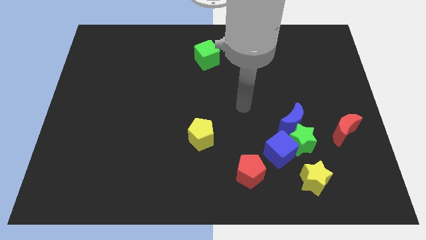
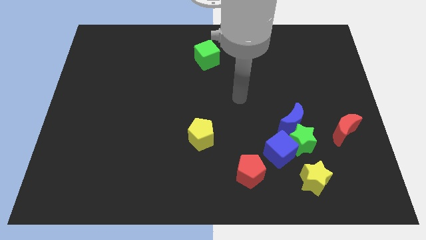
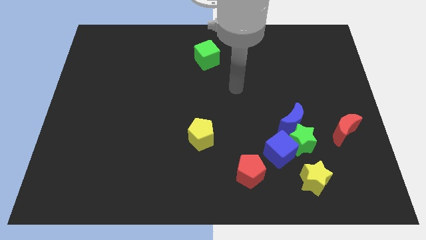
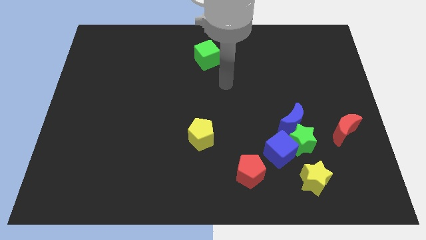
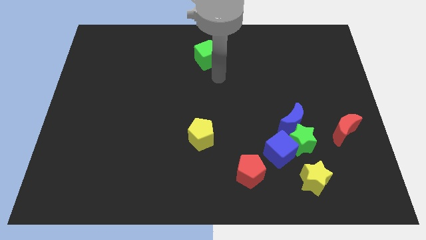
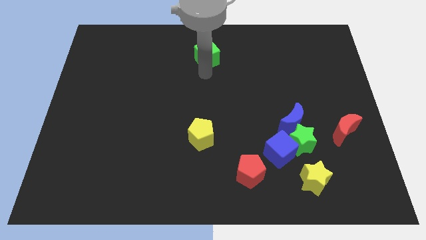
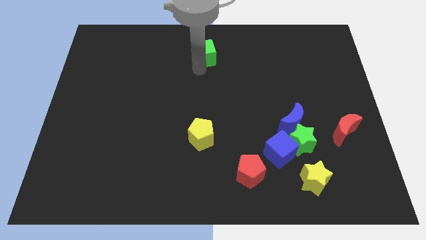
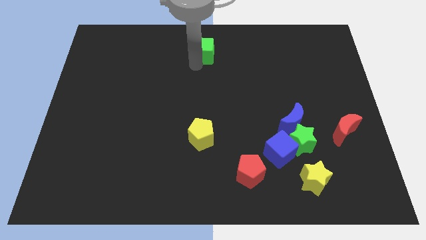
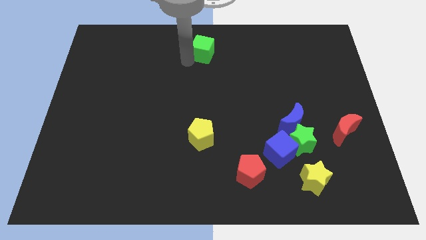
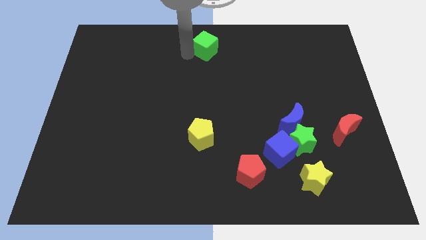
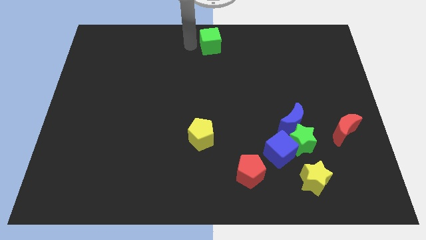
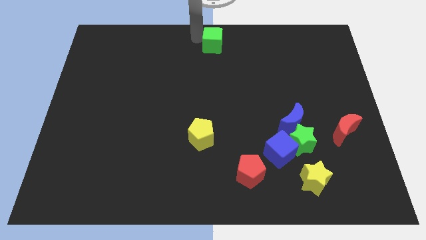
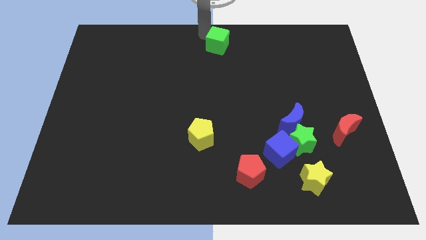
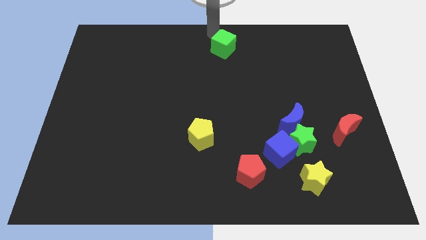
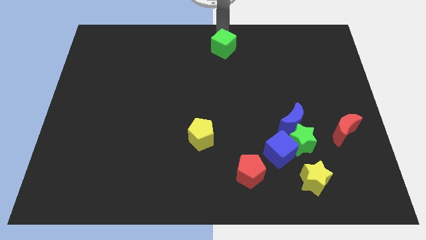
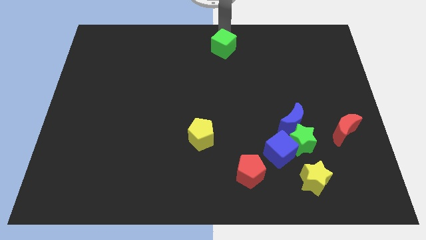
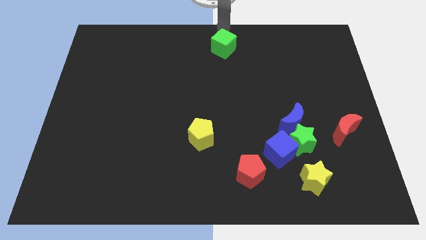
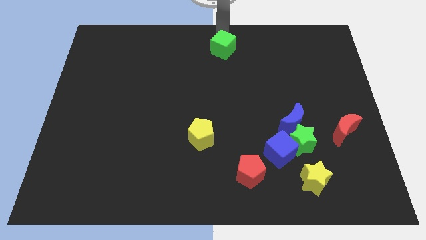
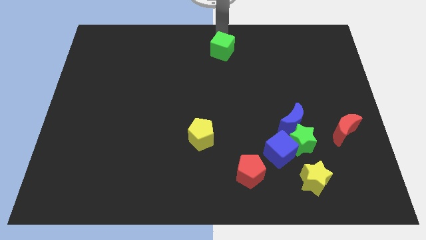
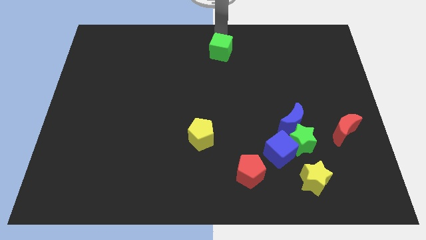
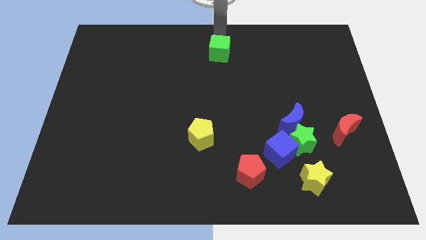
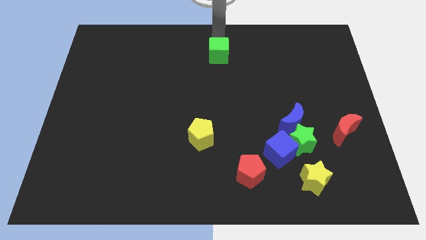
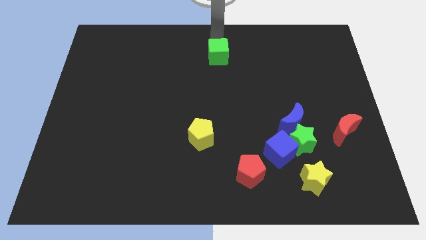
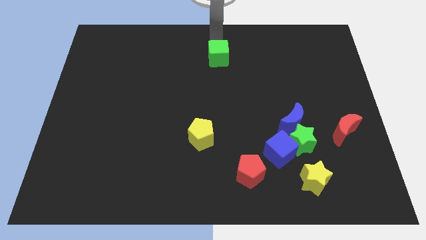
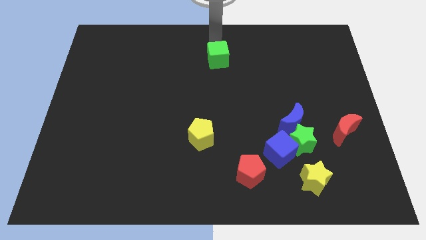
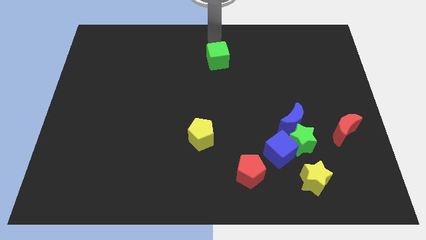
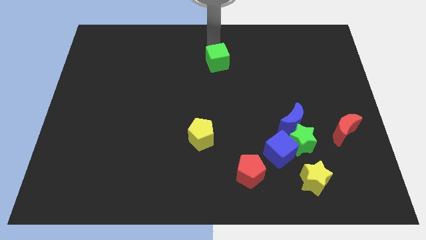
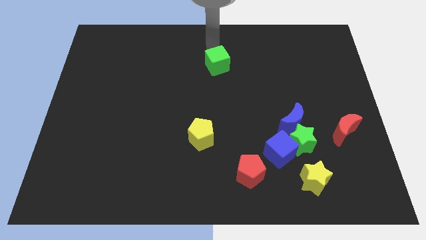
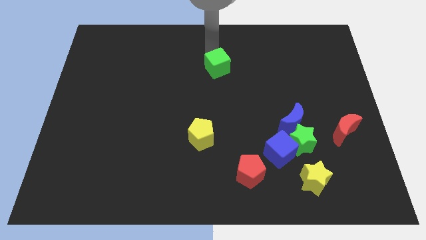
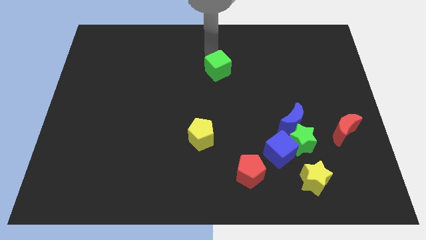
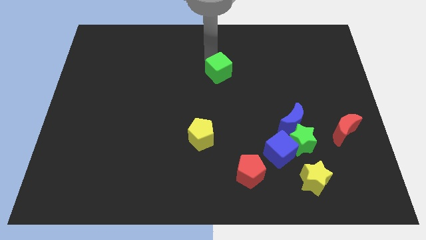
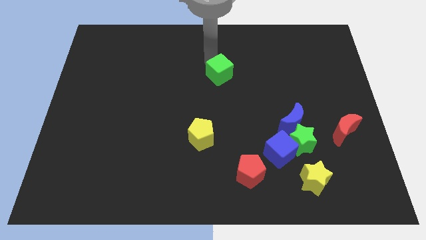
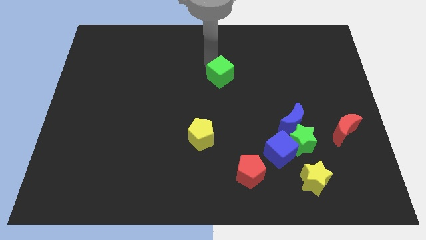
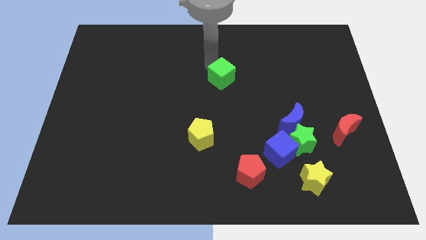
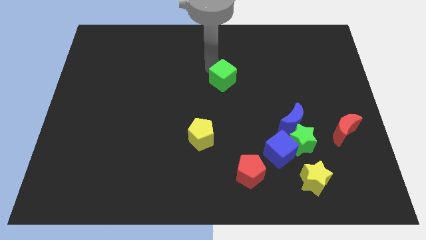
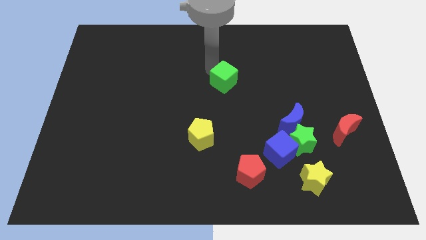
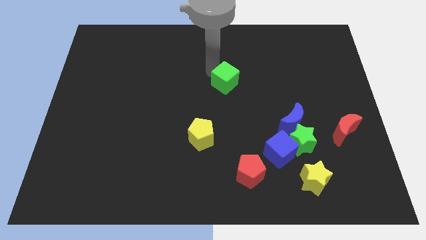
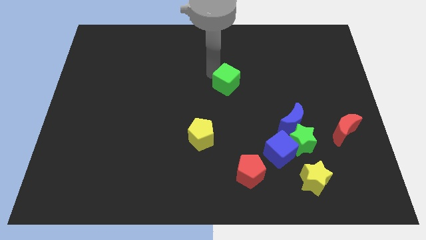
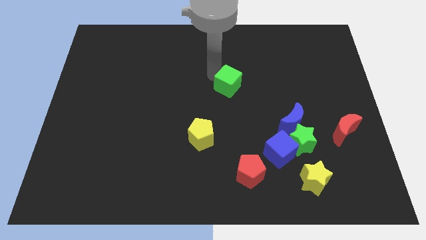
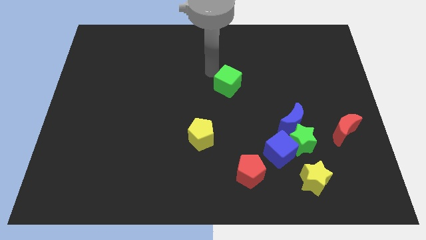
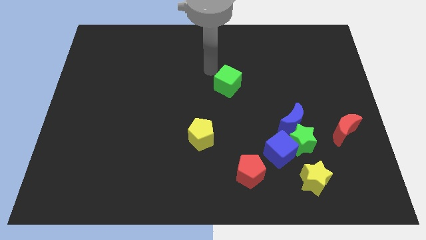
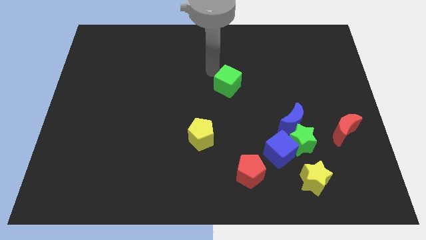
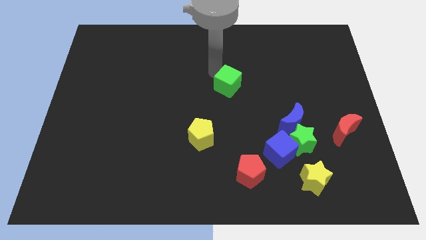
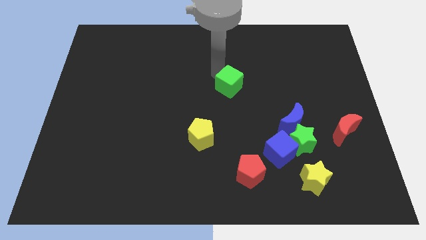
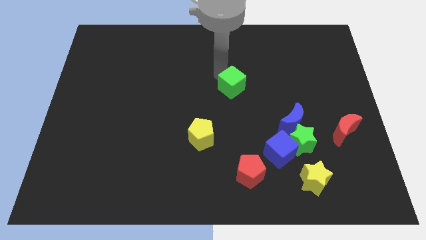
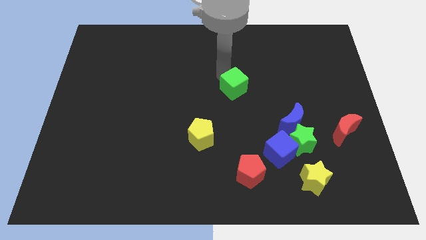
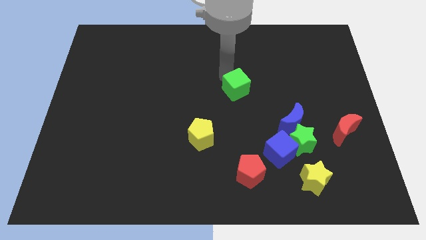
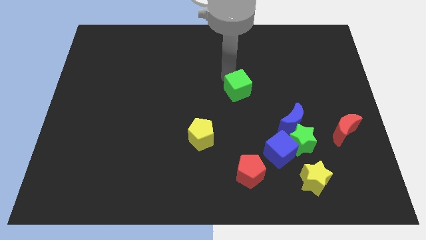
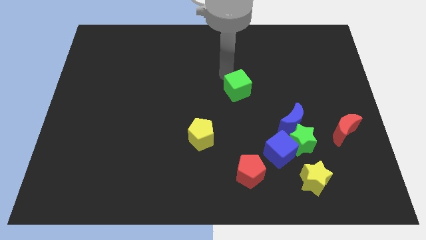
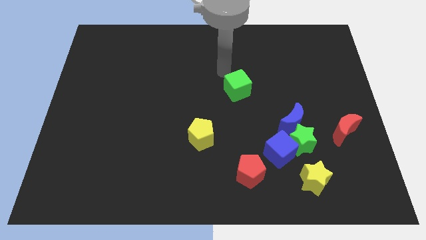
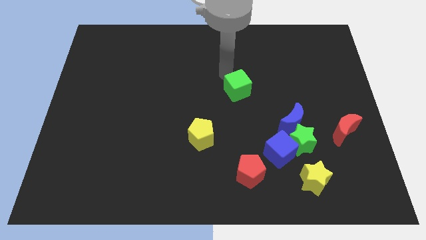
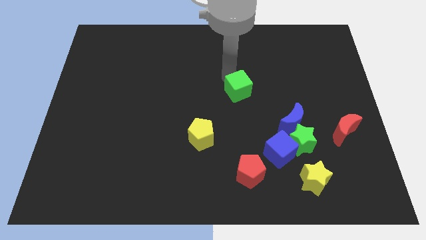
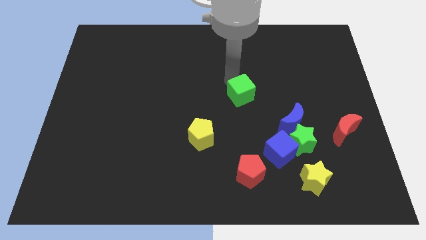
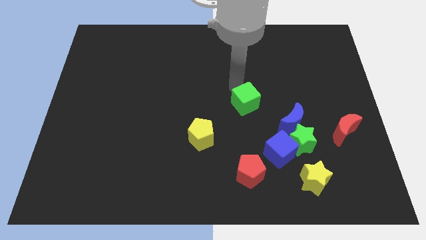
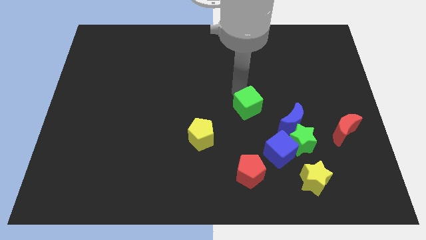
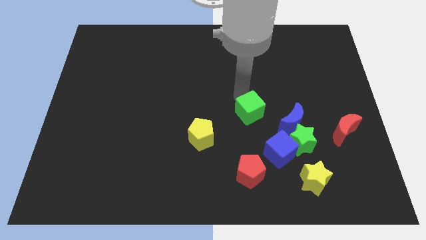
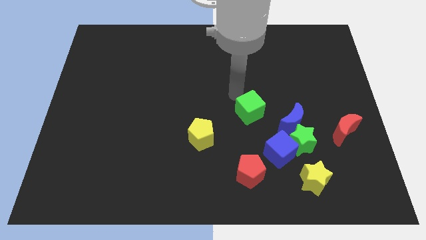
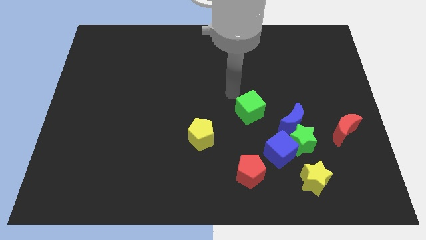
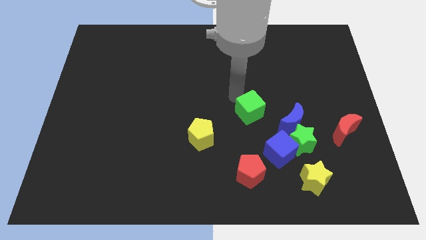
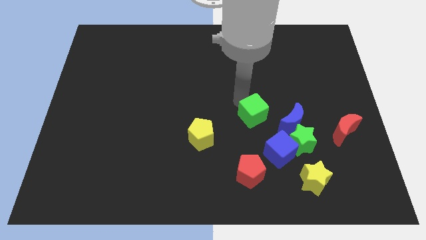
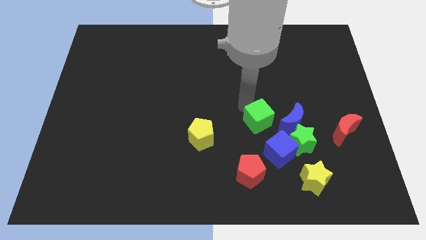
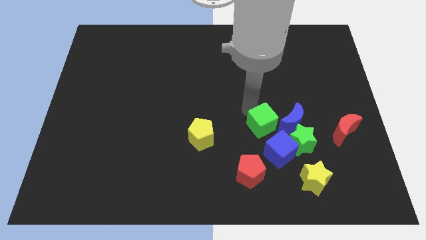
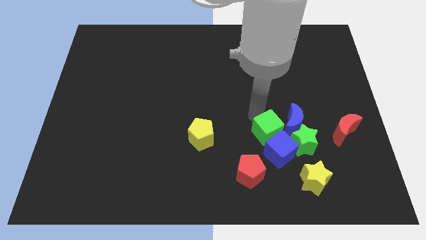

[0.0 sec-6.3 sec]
move the green cube towards the blue cube

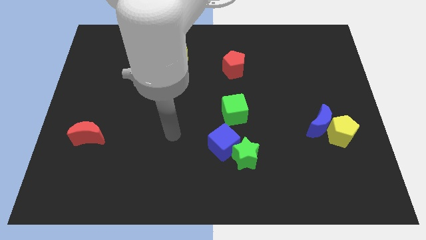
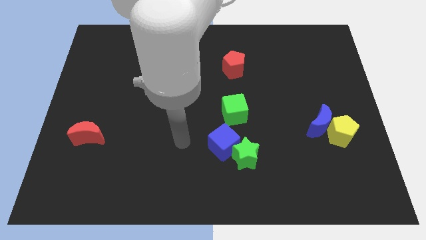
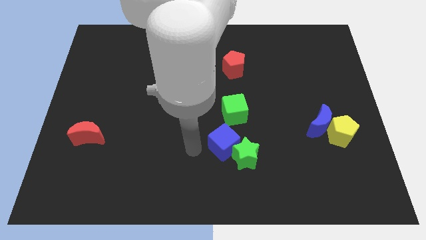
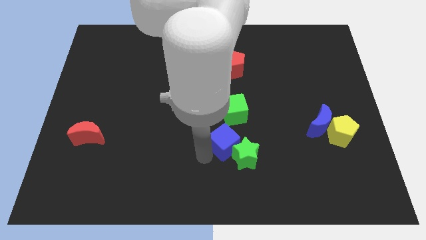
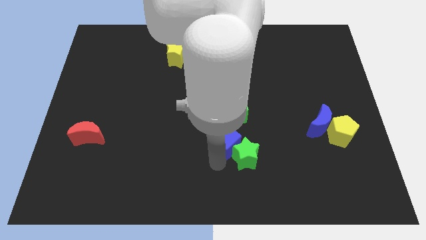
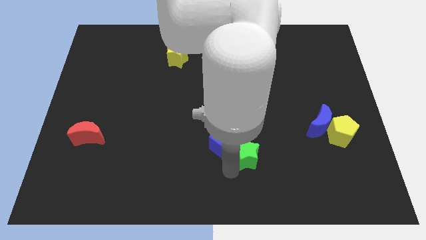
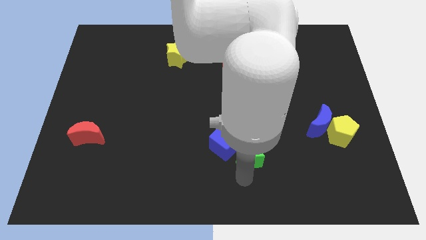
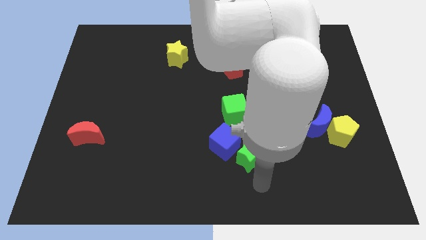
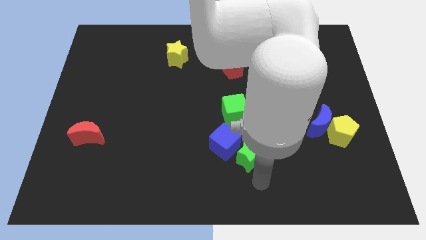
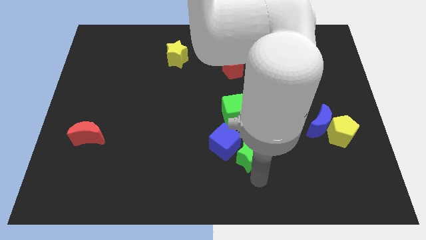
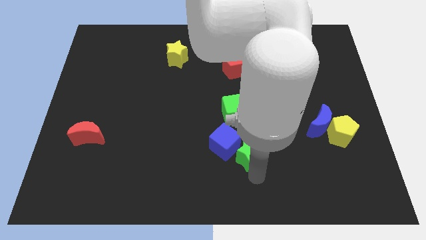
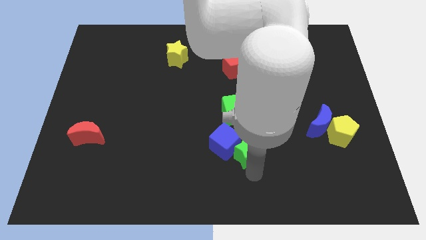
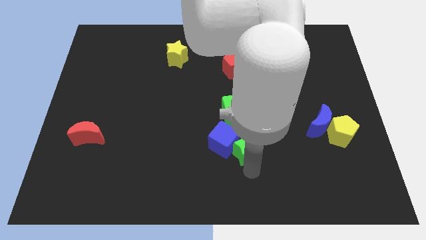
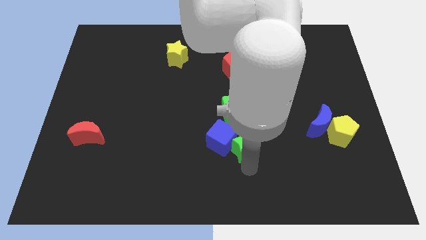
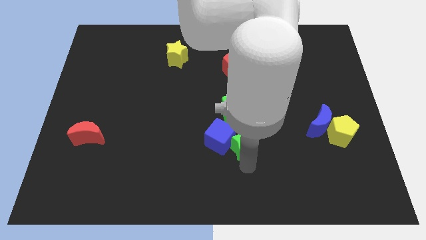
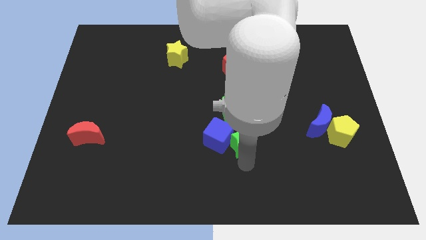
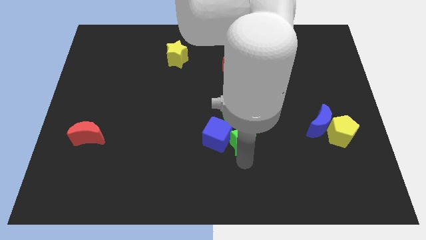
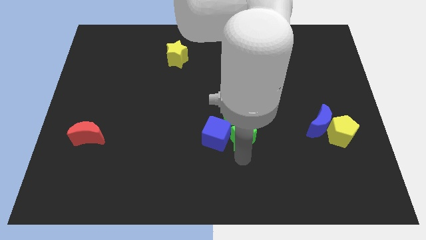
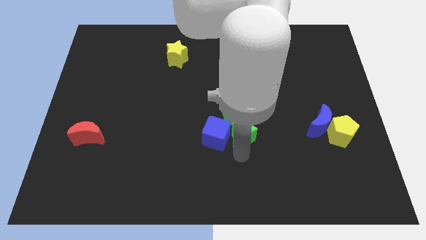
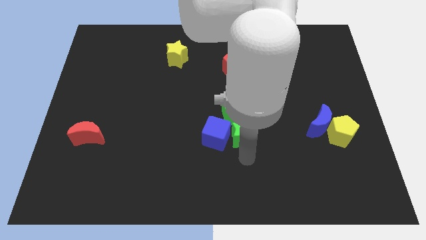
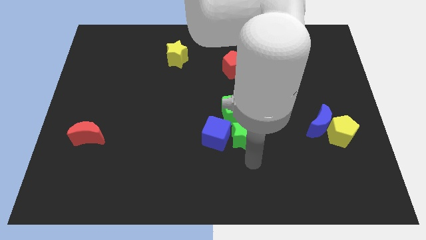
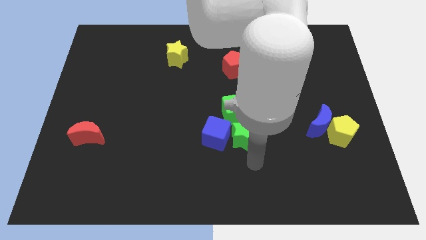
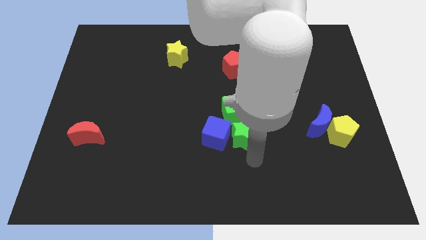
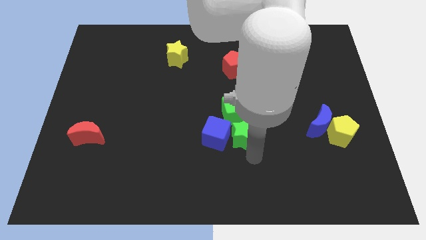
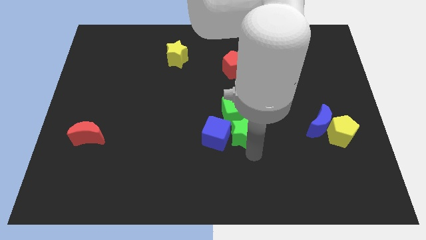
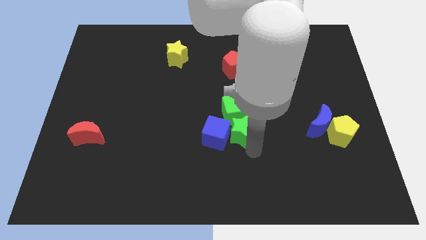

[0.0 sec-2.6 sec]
put the green star close to the green cube
